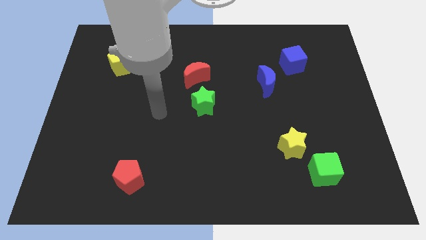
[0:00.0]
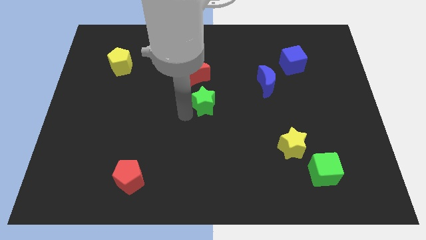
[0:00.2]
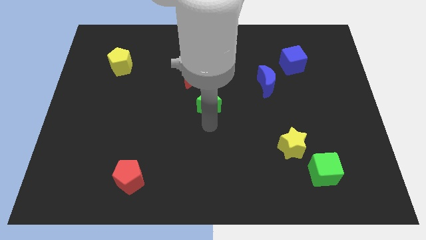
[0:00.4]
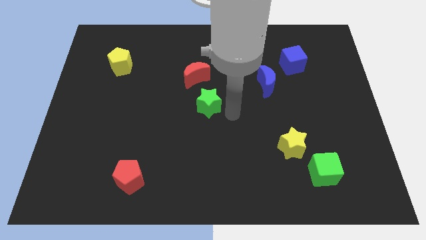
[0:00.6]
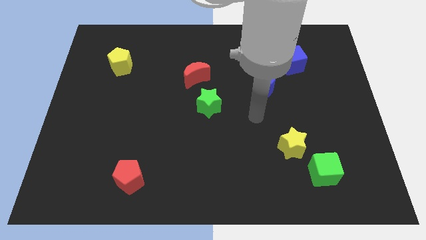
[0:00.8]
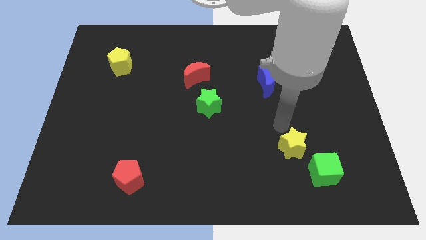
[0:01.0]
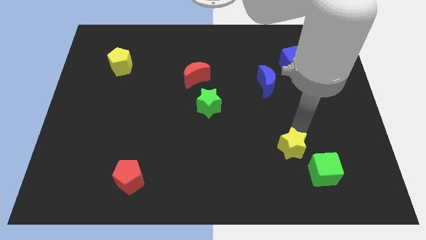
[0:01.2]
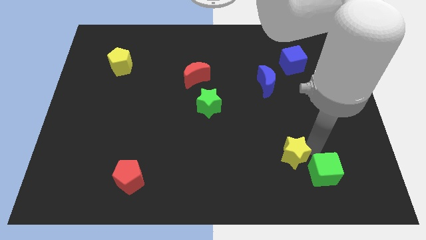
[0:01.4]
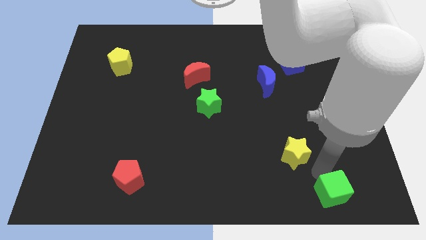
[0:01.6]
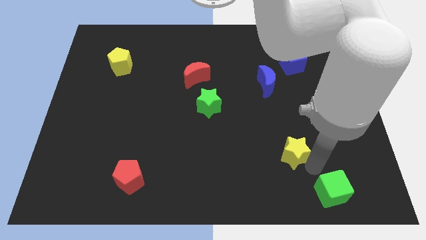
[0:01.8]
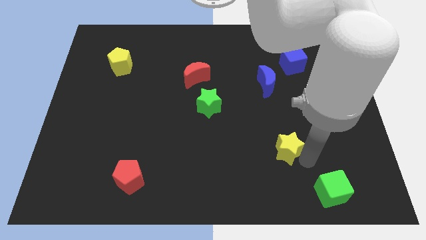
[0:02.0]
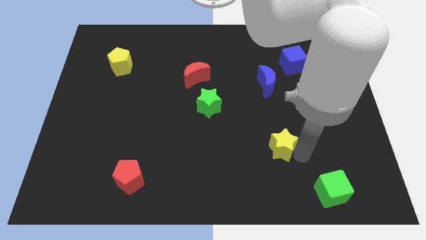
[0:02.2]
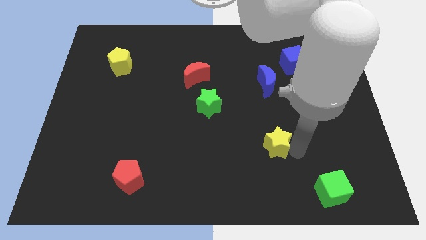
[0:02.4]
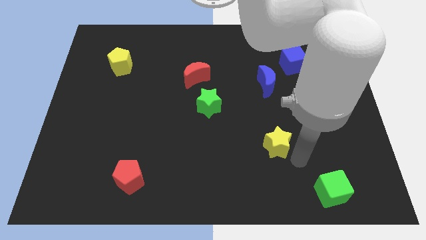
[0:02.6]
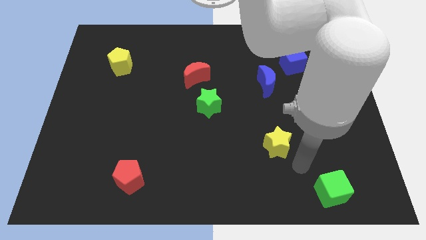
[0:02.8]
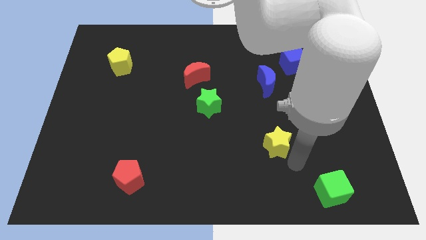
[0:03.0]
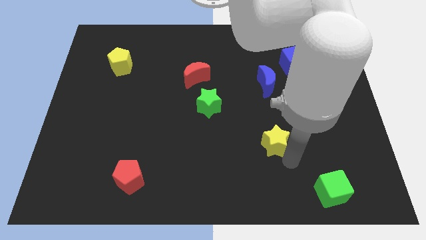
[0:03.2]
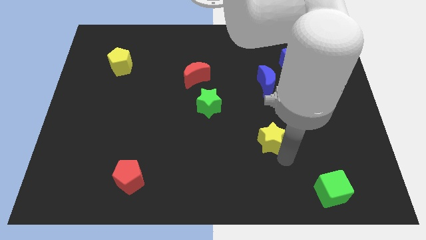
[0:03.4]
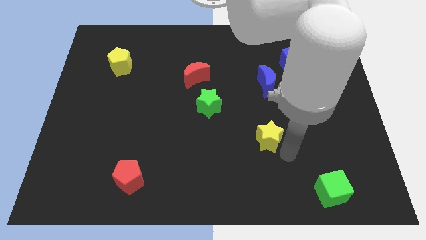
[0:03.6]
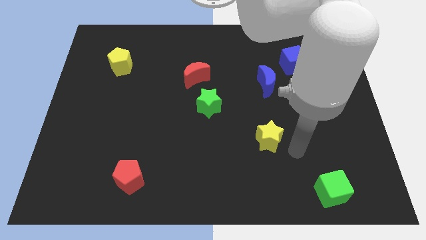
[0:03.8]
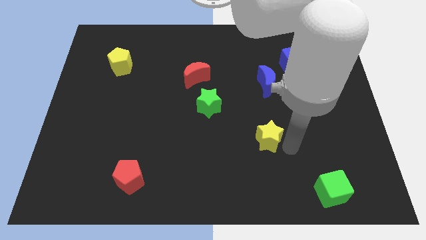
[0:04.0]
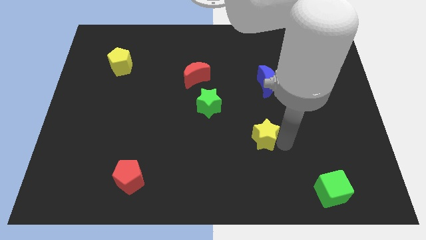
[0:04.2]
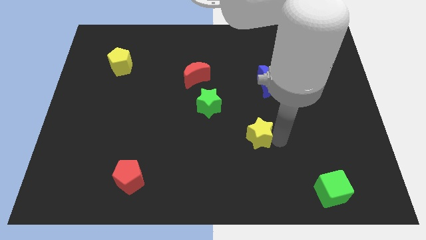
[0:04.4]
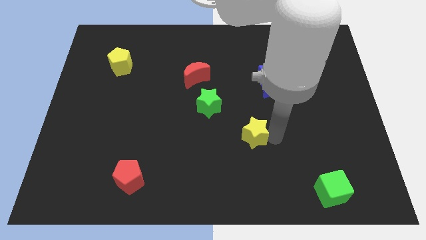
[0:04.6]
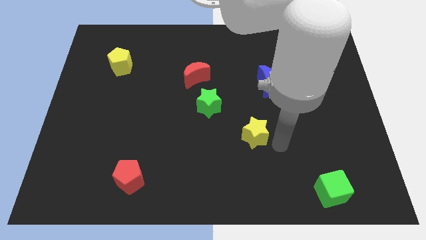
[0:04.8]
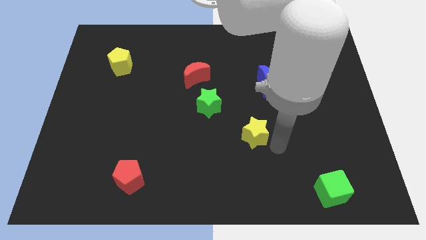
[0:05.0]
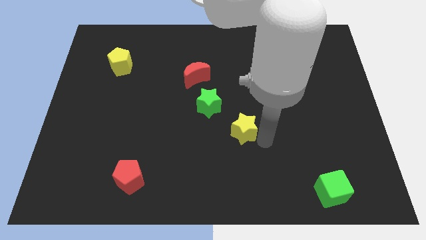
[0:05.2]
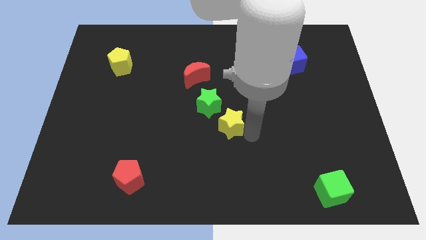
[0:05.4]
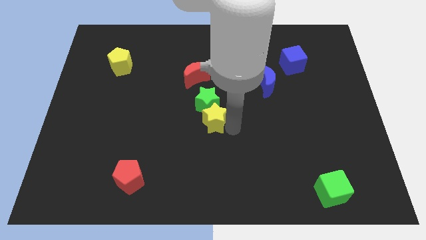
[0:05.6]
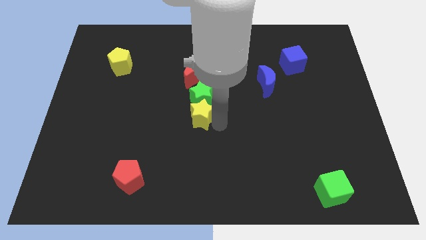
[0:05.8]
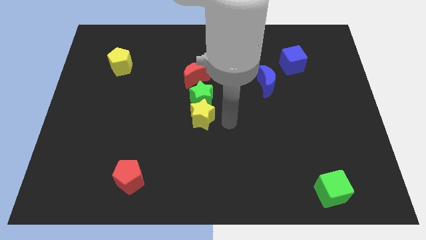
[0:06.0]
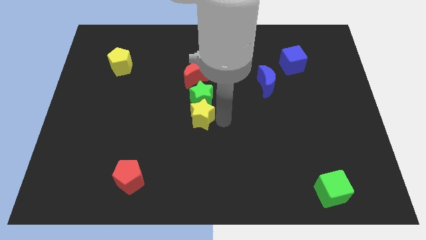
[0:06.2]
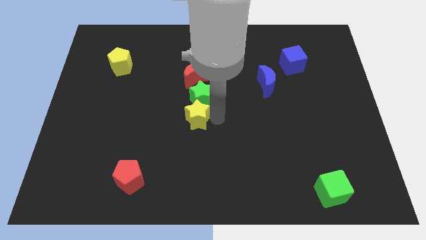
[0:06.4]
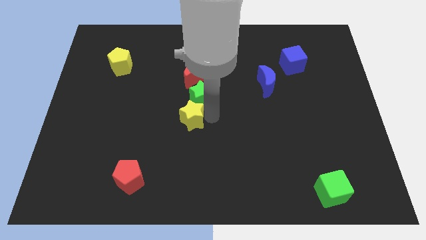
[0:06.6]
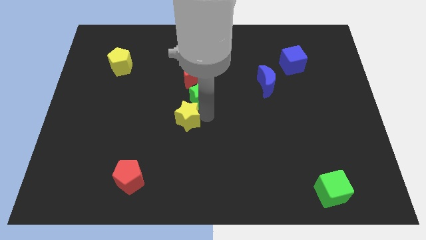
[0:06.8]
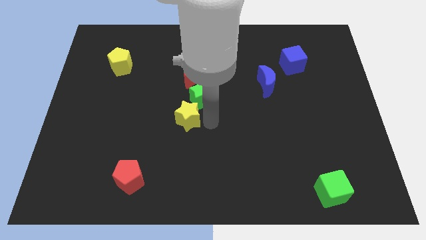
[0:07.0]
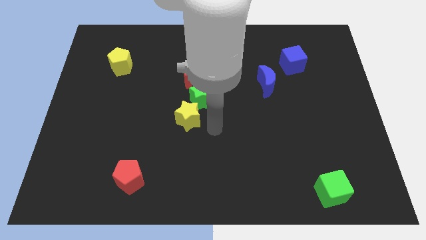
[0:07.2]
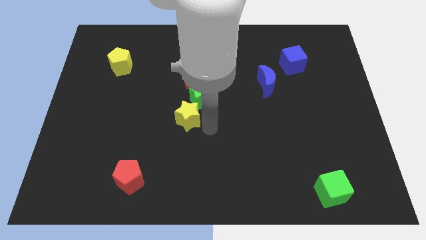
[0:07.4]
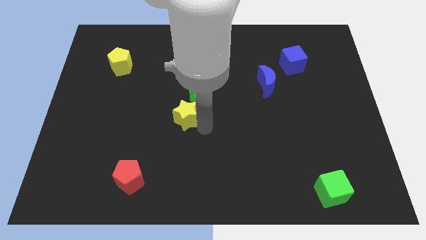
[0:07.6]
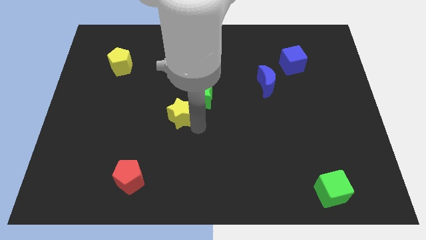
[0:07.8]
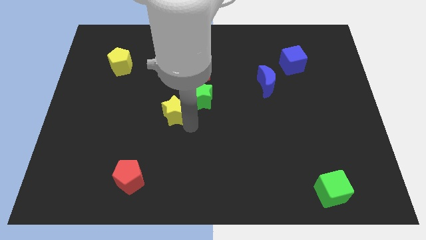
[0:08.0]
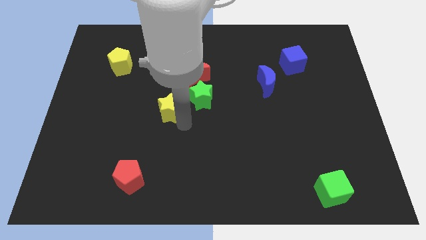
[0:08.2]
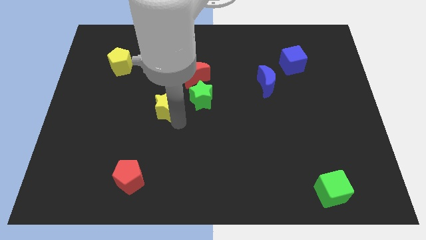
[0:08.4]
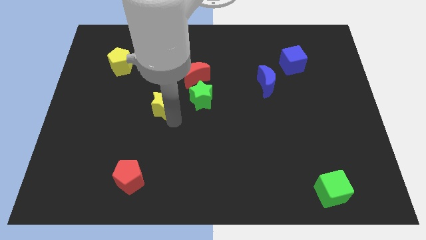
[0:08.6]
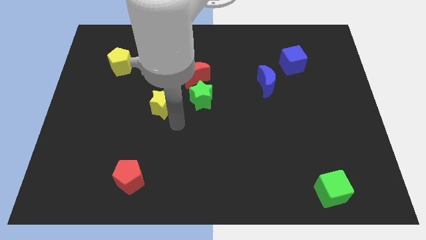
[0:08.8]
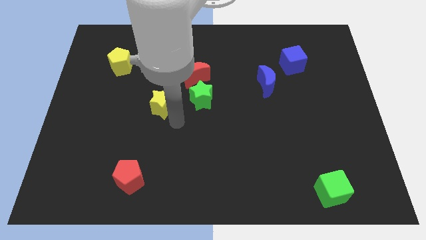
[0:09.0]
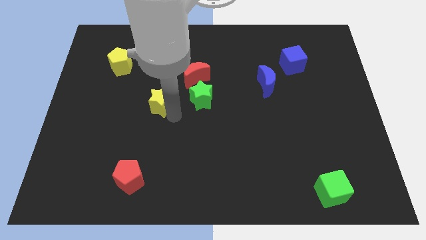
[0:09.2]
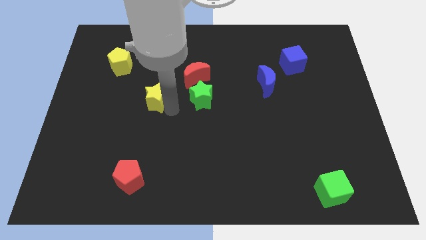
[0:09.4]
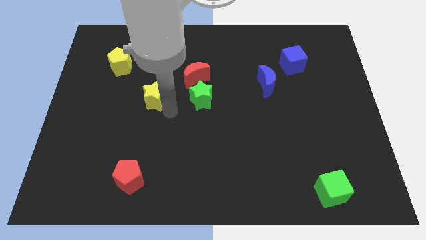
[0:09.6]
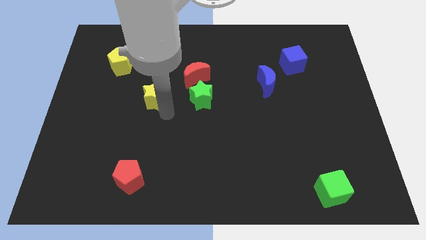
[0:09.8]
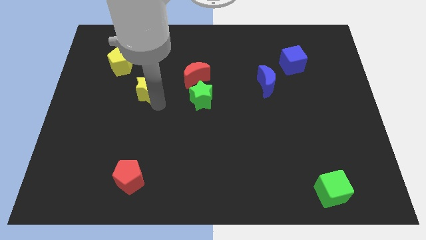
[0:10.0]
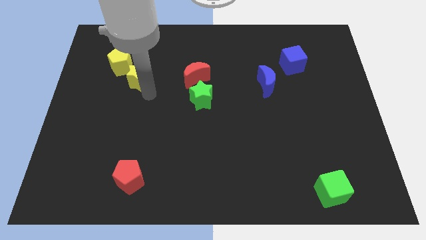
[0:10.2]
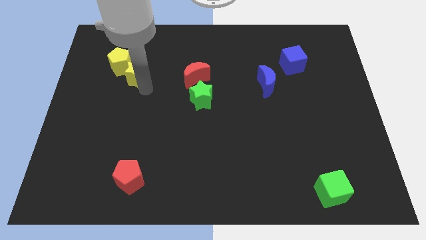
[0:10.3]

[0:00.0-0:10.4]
slide the yellow star next to the yellow pentagon

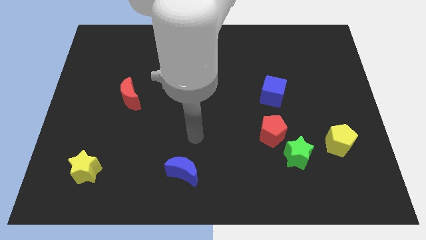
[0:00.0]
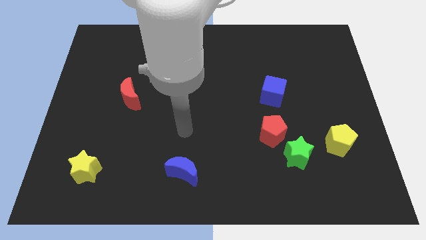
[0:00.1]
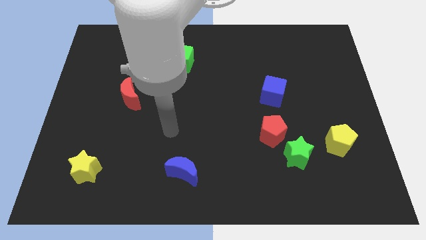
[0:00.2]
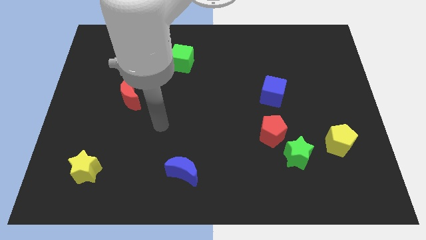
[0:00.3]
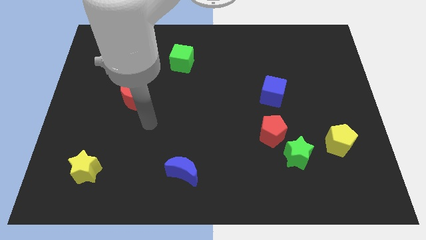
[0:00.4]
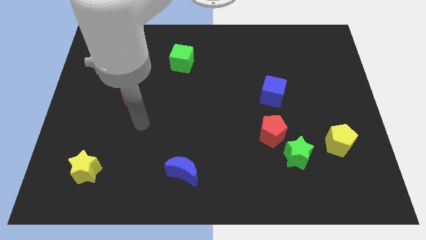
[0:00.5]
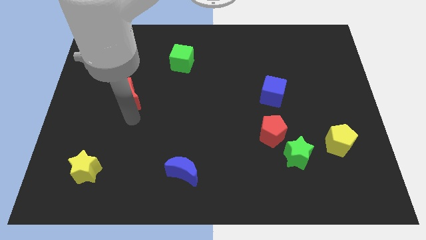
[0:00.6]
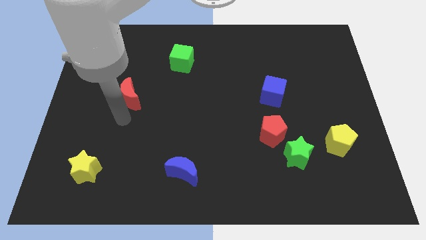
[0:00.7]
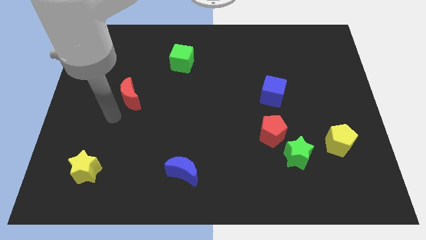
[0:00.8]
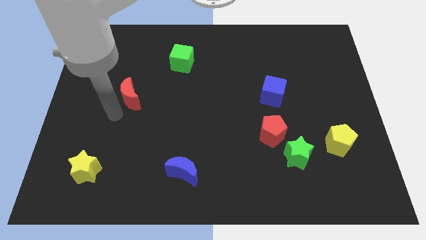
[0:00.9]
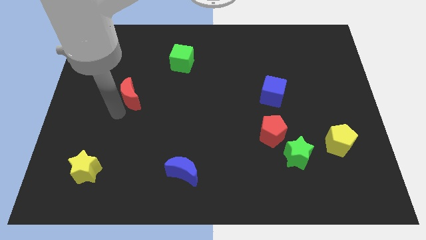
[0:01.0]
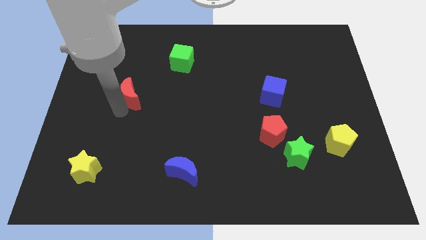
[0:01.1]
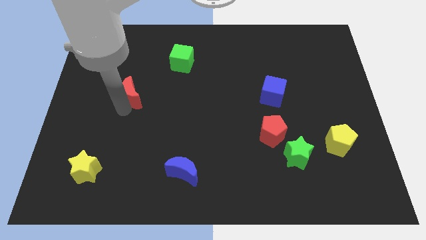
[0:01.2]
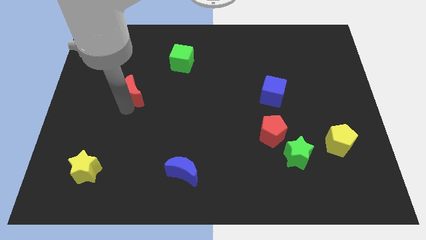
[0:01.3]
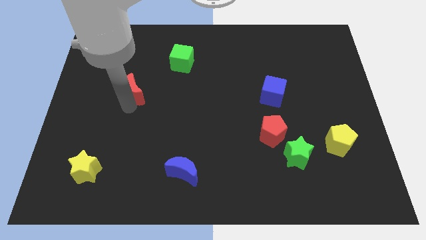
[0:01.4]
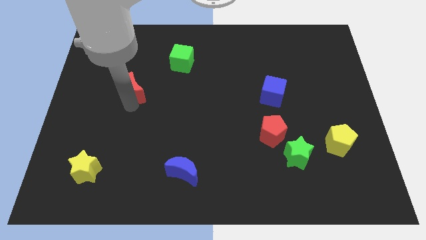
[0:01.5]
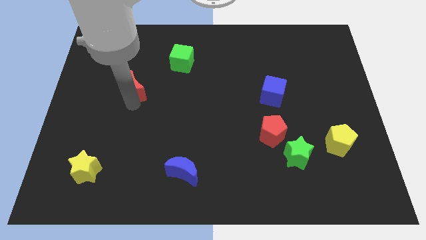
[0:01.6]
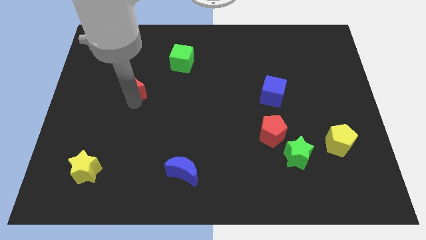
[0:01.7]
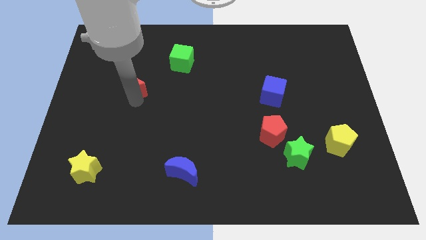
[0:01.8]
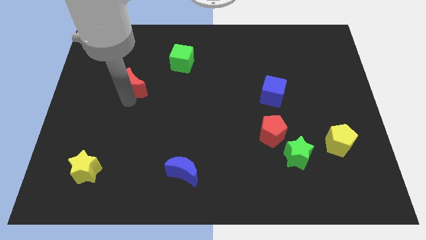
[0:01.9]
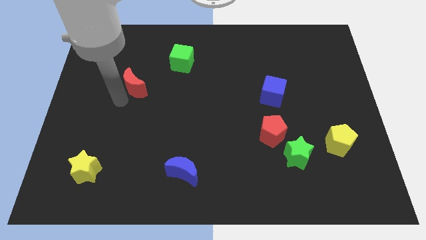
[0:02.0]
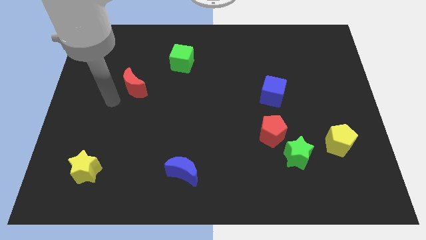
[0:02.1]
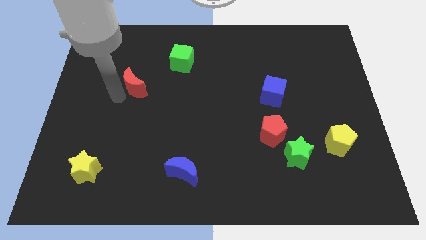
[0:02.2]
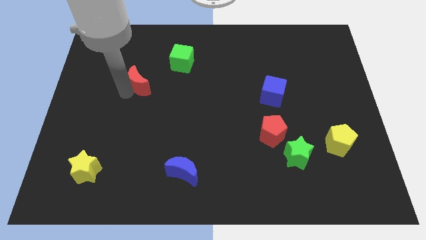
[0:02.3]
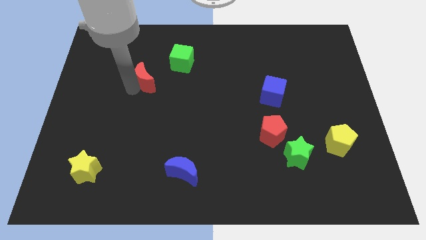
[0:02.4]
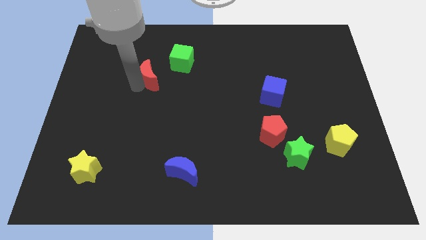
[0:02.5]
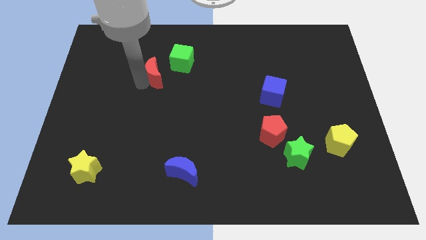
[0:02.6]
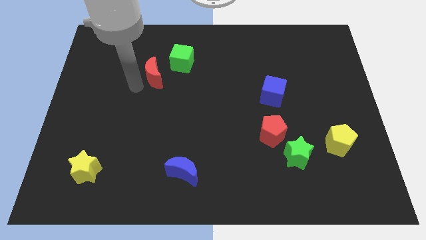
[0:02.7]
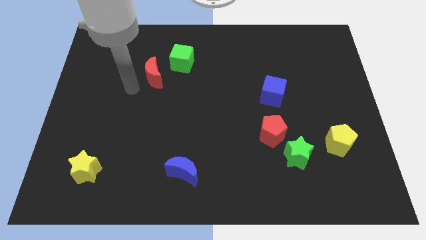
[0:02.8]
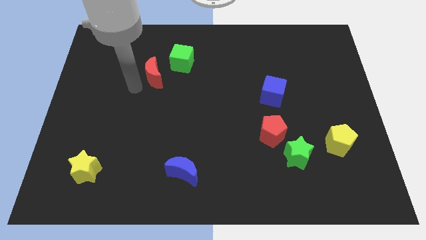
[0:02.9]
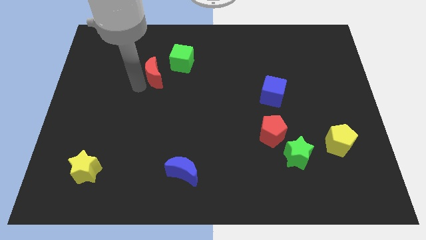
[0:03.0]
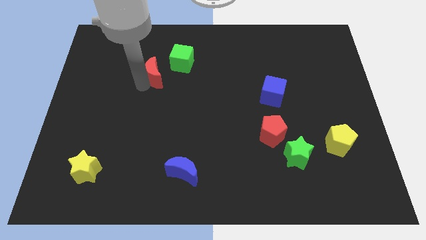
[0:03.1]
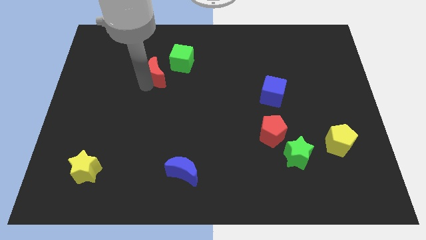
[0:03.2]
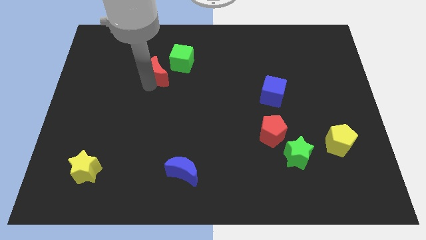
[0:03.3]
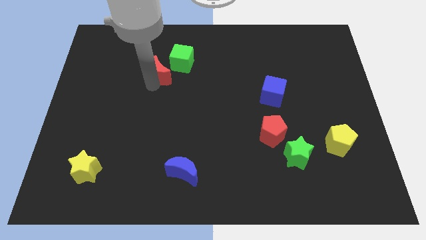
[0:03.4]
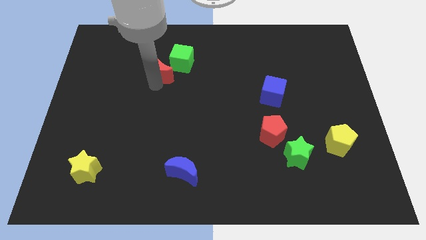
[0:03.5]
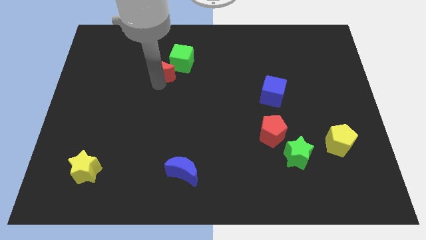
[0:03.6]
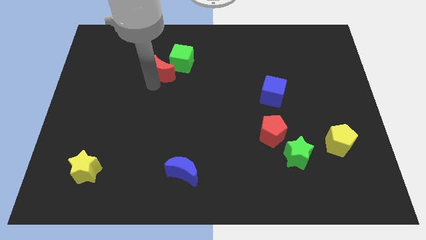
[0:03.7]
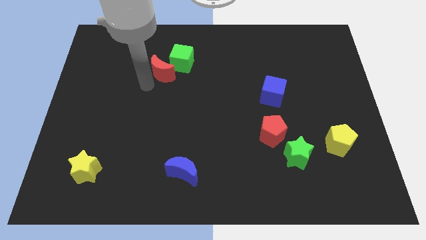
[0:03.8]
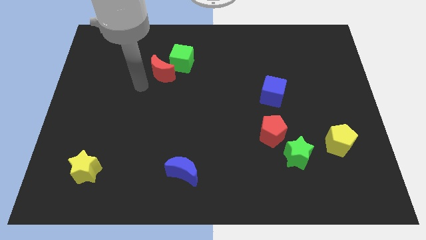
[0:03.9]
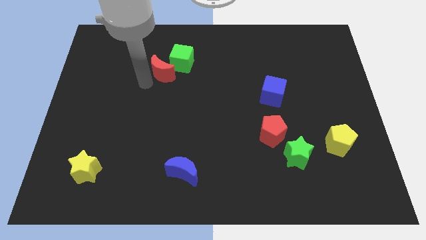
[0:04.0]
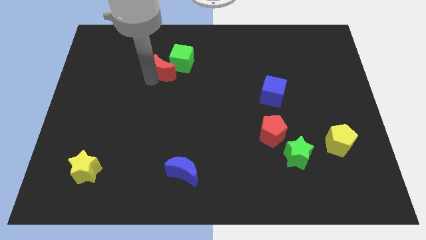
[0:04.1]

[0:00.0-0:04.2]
push the red moon next to the green cube
